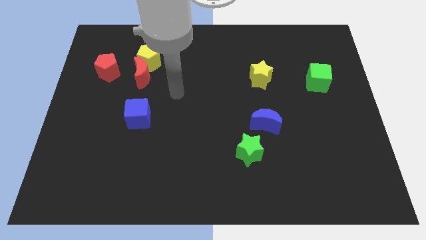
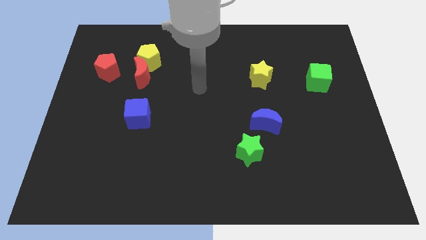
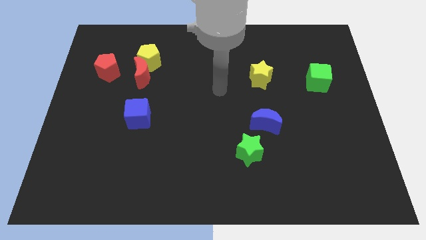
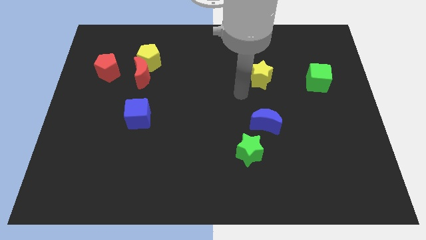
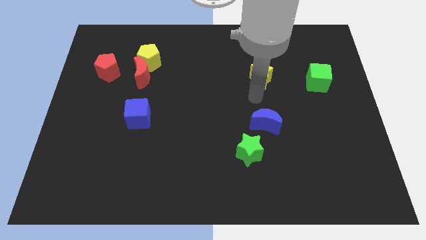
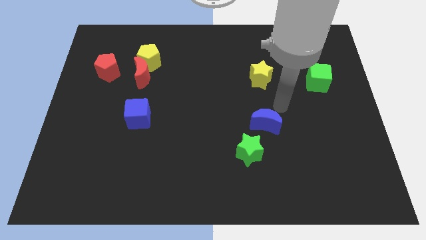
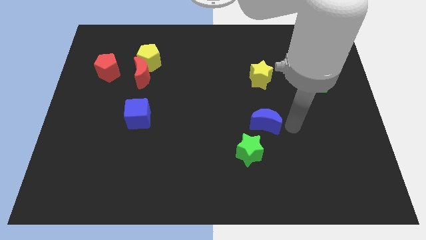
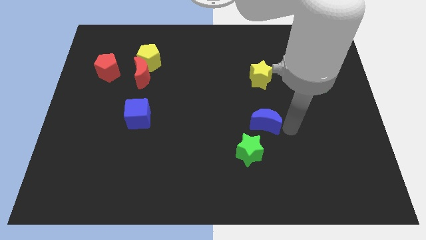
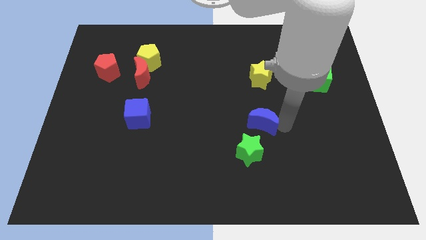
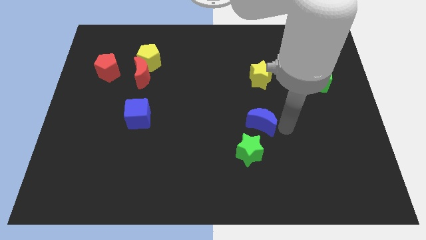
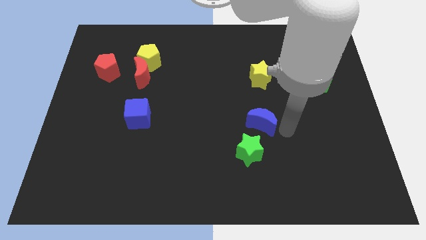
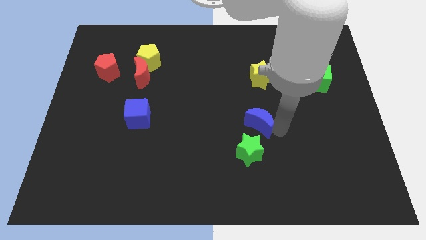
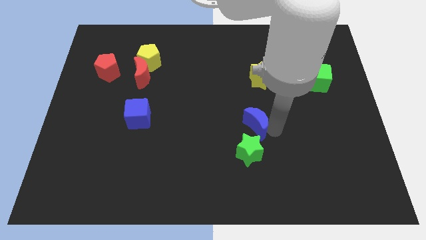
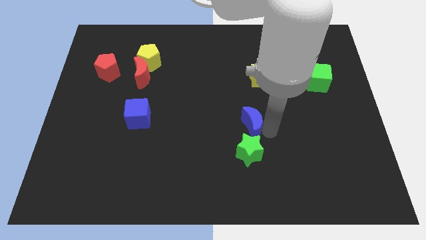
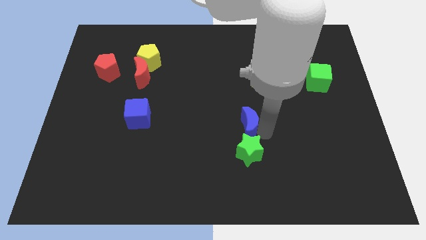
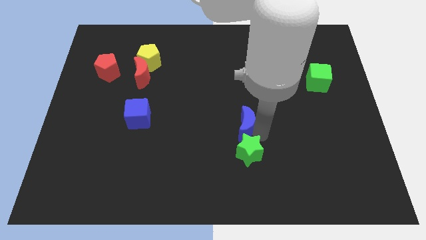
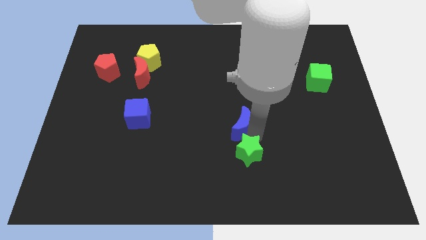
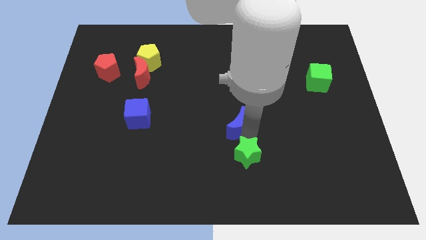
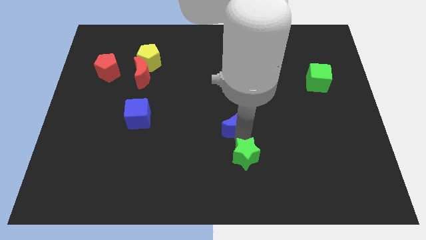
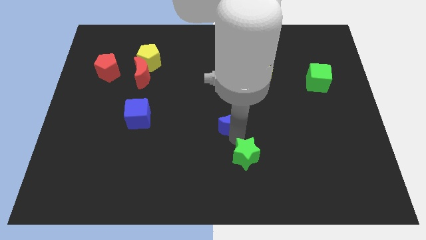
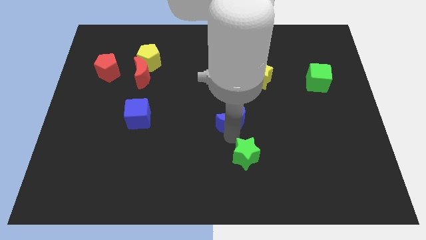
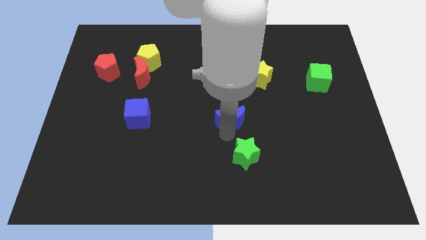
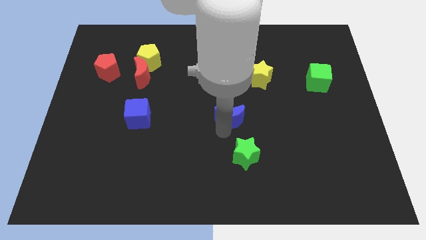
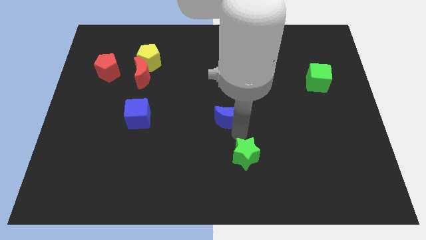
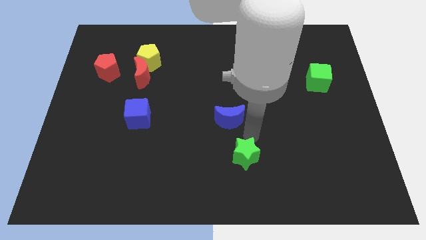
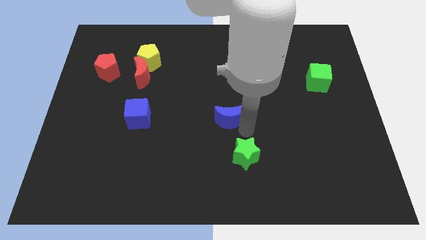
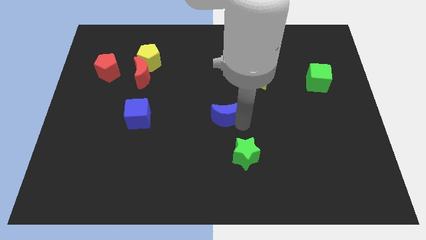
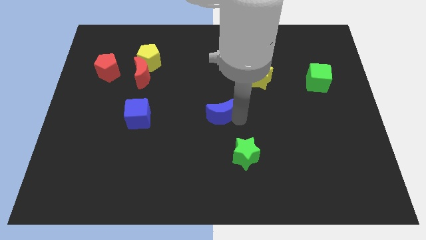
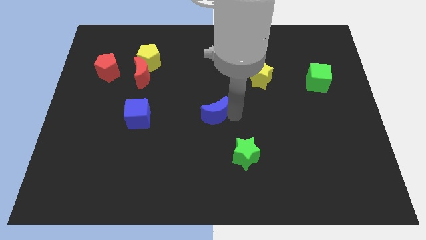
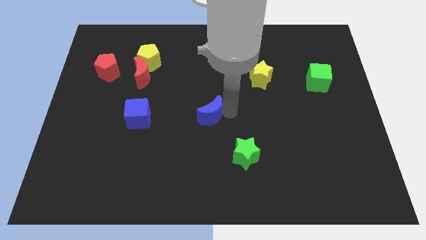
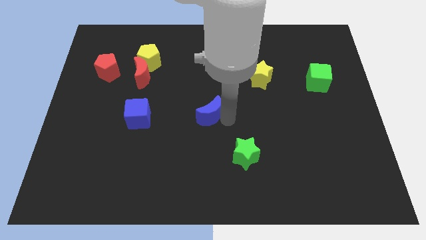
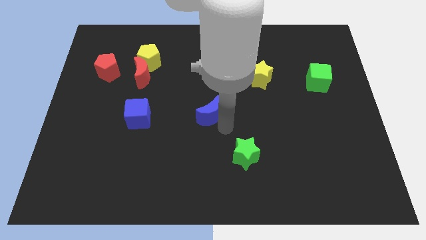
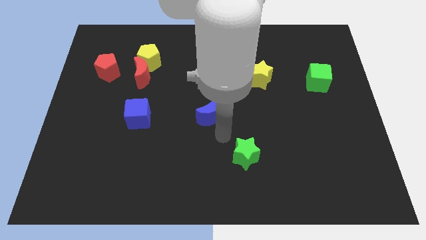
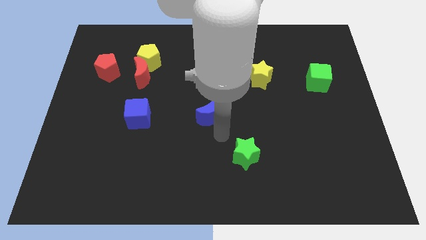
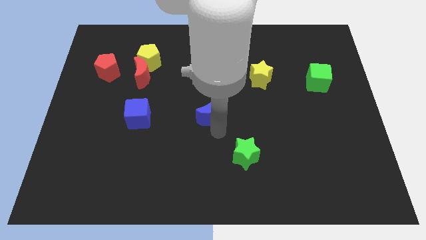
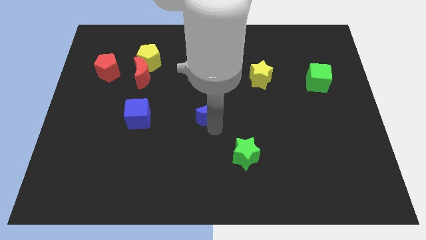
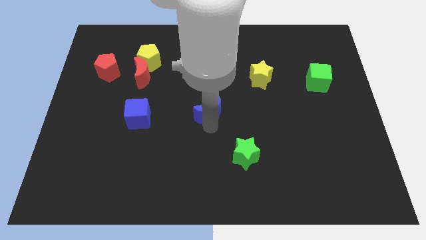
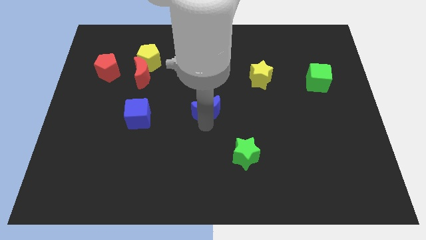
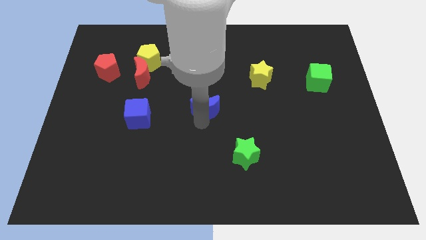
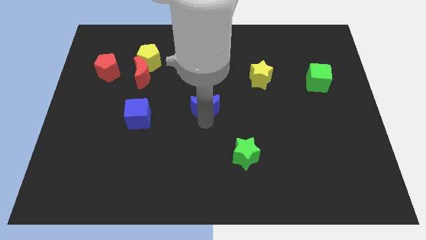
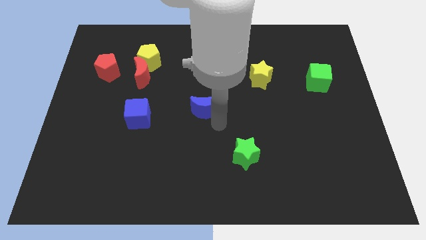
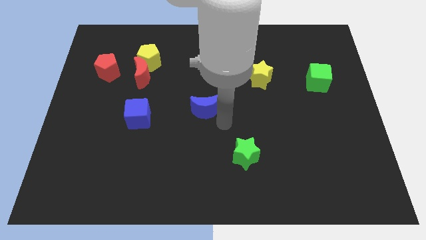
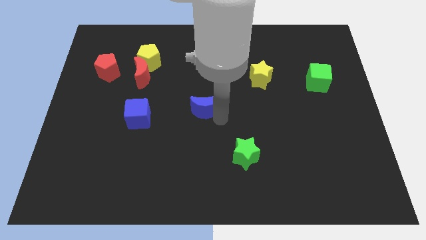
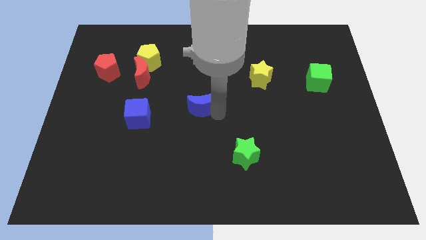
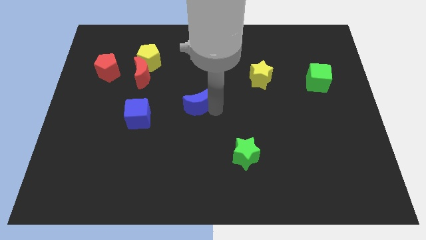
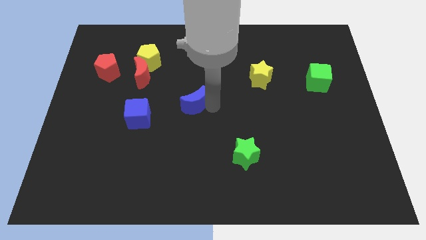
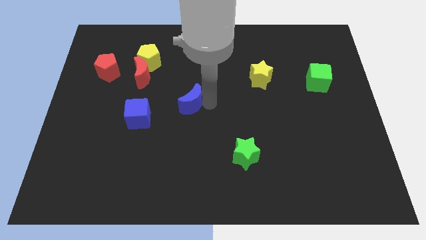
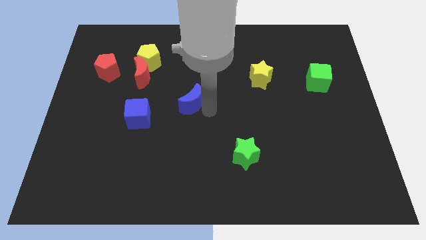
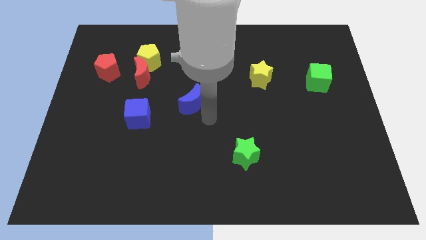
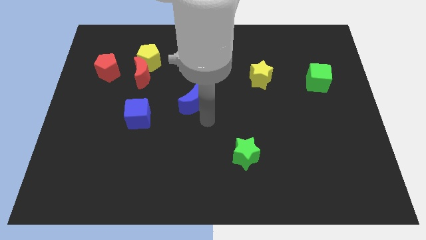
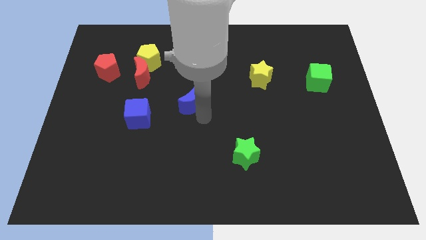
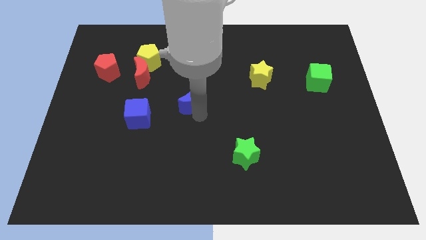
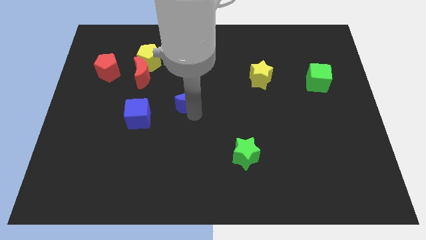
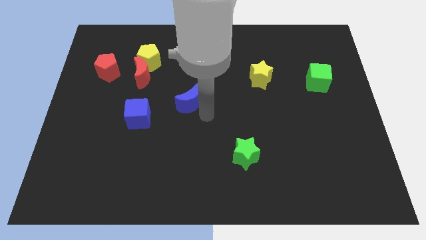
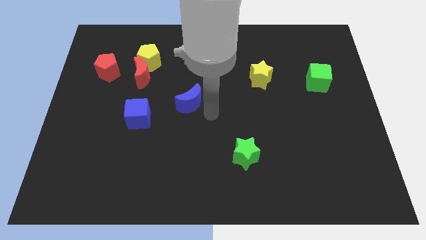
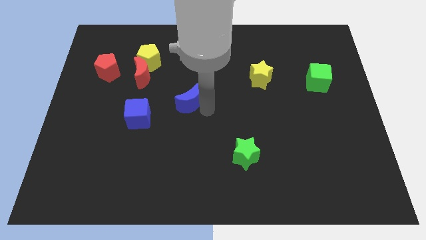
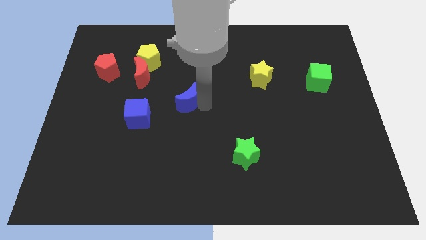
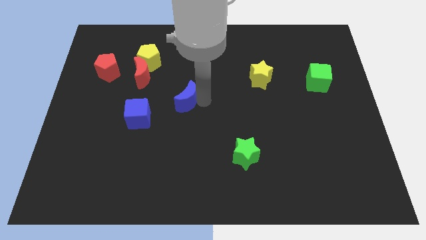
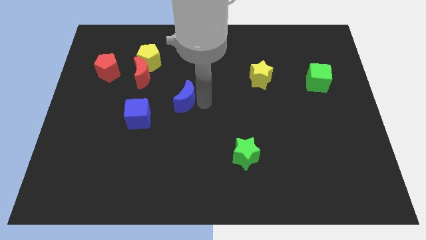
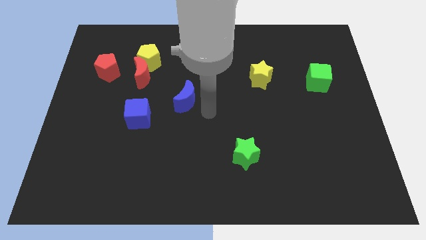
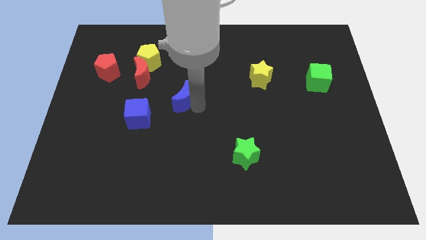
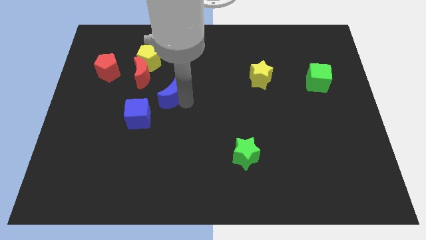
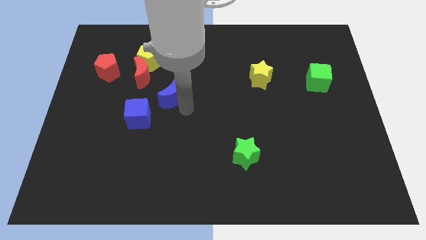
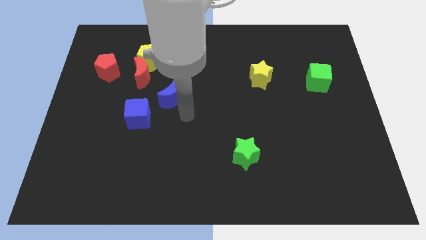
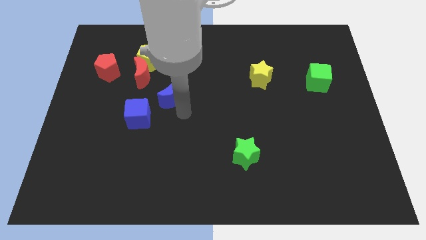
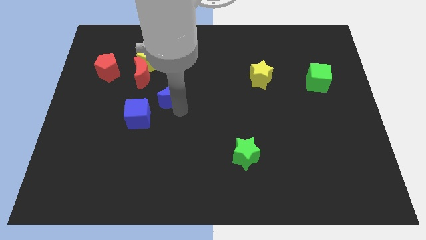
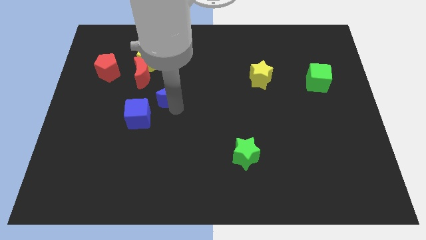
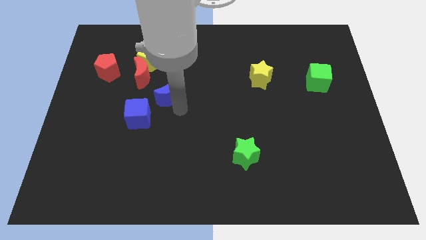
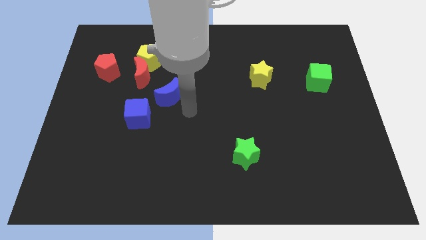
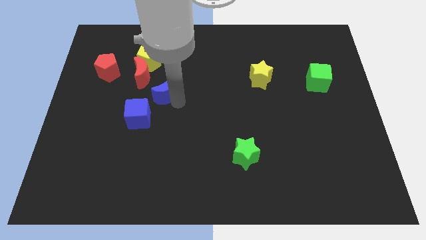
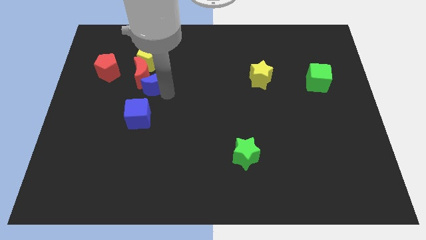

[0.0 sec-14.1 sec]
move the blue moon towards the red moon
